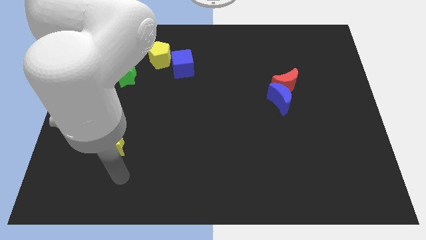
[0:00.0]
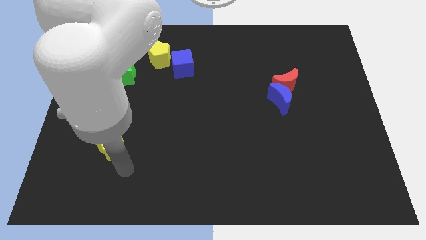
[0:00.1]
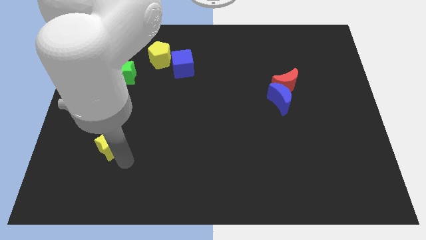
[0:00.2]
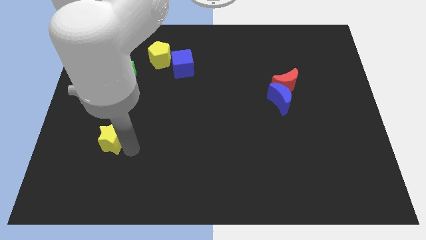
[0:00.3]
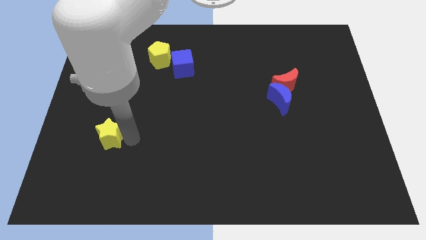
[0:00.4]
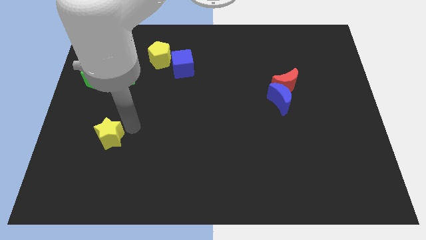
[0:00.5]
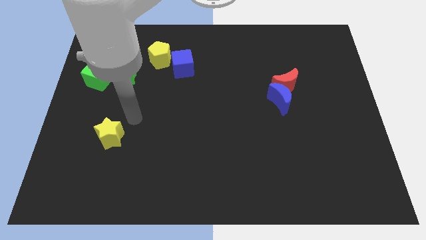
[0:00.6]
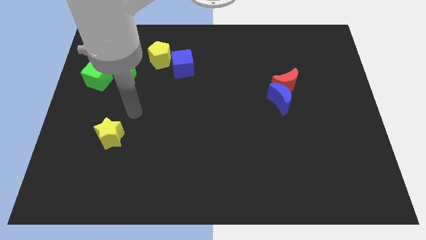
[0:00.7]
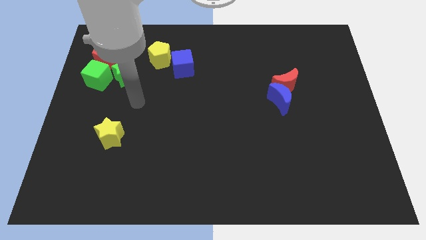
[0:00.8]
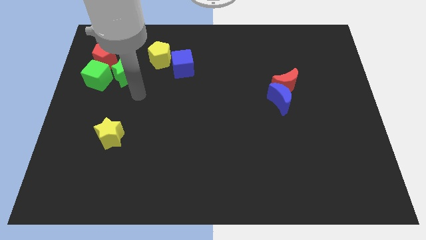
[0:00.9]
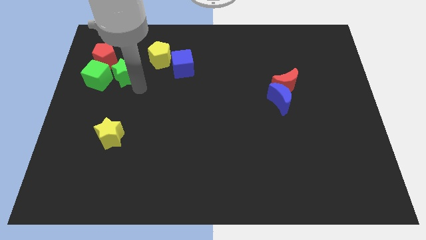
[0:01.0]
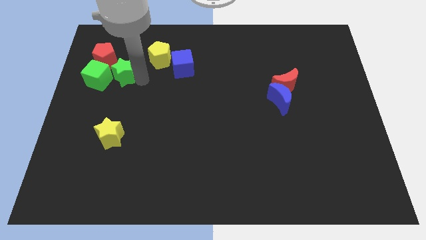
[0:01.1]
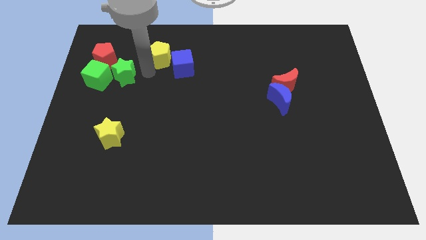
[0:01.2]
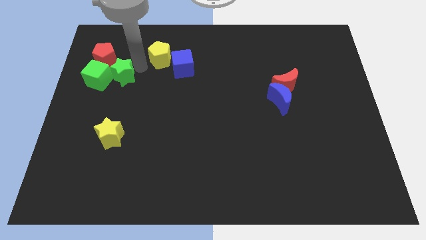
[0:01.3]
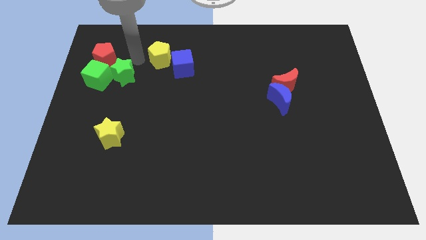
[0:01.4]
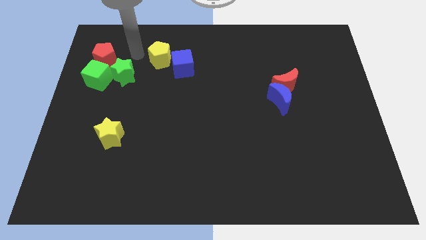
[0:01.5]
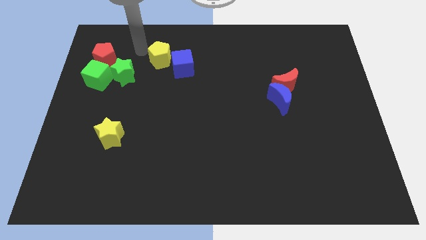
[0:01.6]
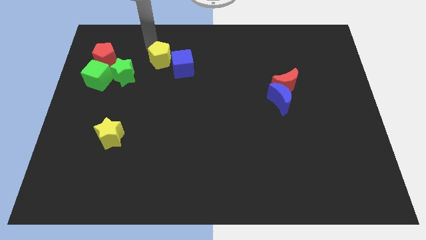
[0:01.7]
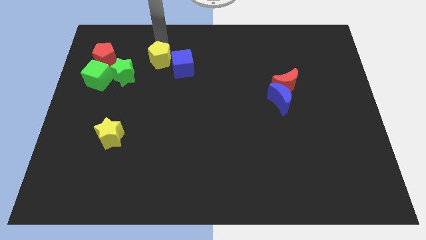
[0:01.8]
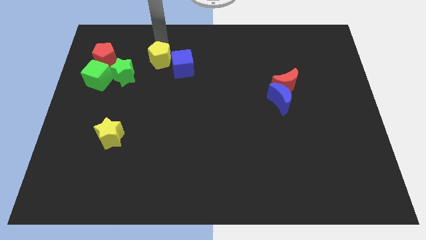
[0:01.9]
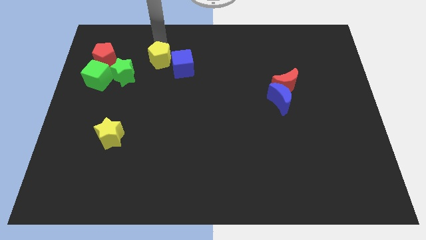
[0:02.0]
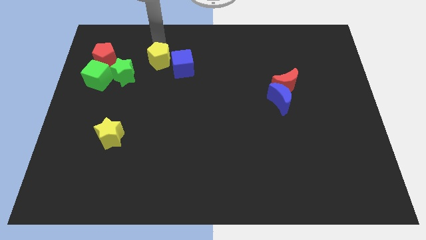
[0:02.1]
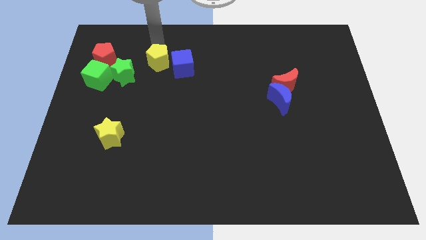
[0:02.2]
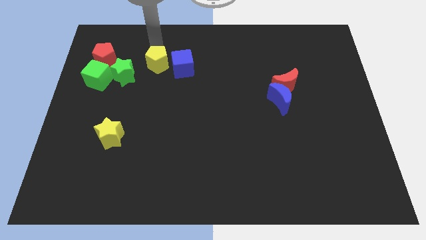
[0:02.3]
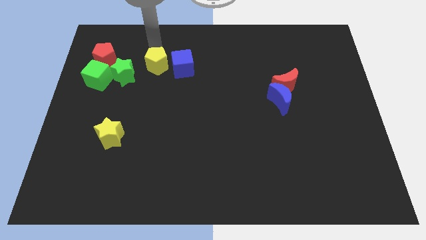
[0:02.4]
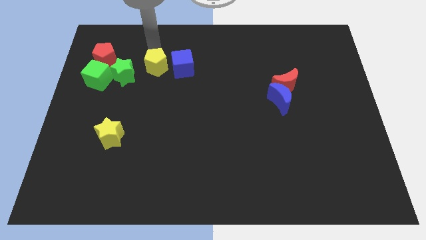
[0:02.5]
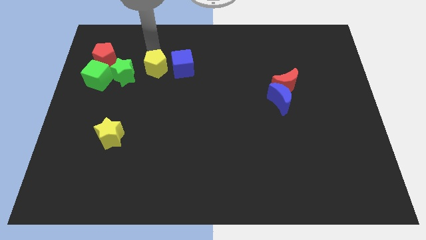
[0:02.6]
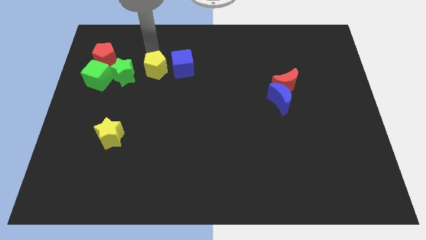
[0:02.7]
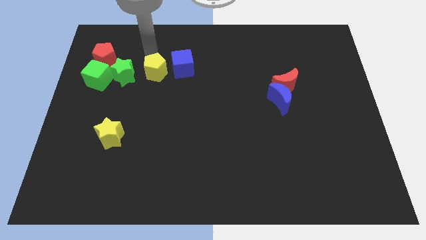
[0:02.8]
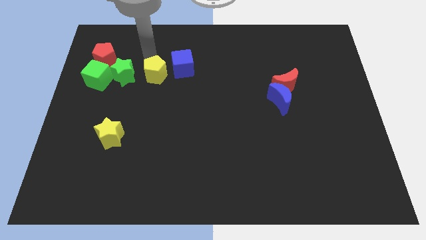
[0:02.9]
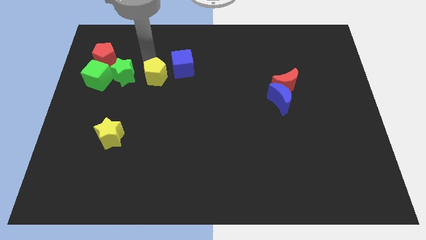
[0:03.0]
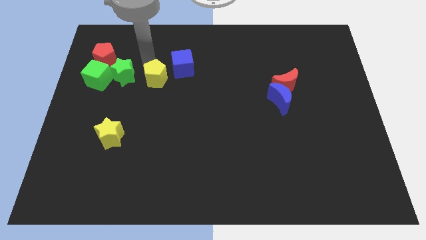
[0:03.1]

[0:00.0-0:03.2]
push the yellow pentagon a little bit downwards

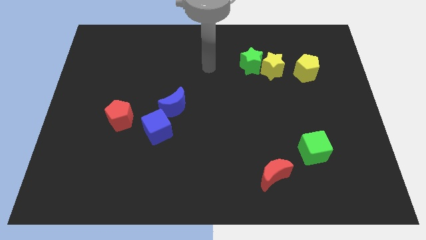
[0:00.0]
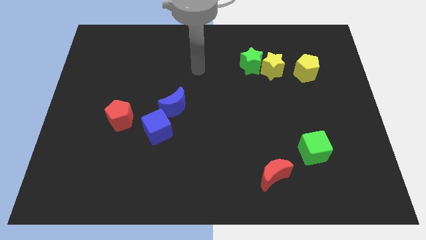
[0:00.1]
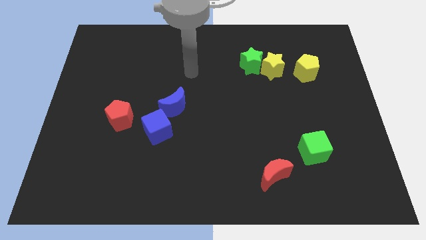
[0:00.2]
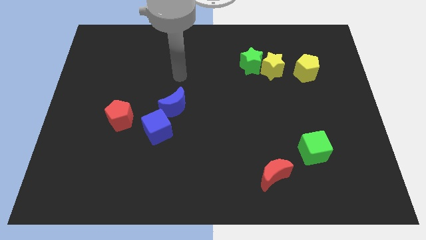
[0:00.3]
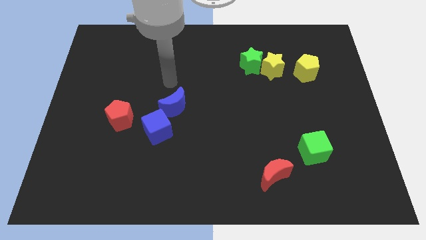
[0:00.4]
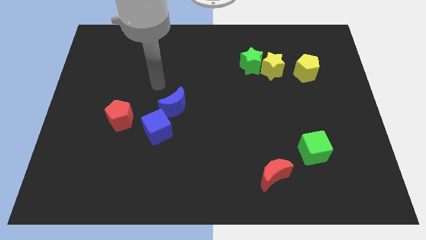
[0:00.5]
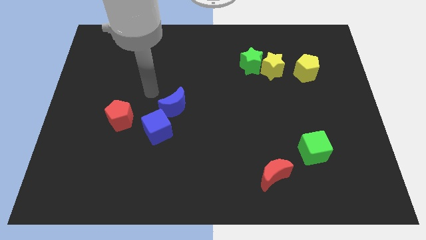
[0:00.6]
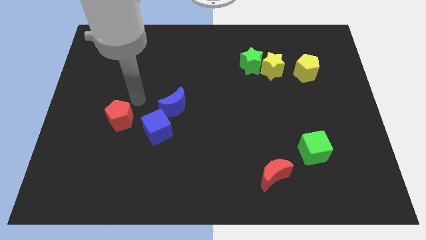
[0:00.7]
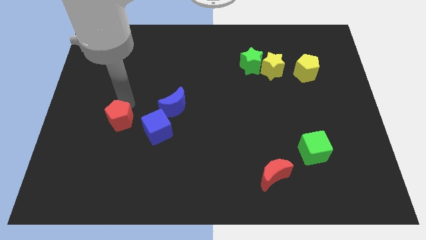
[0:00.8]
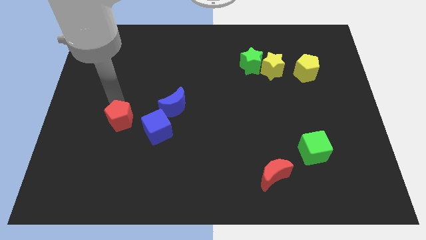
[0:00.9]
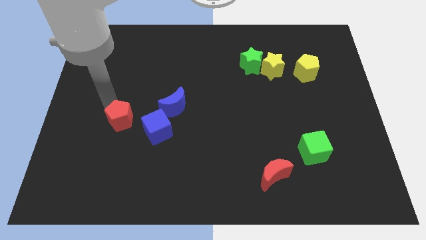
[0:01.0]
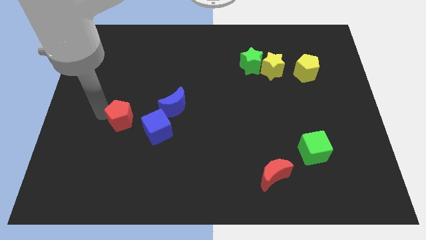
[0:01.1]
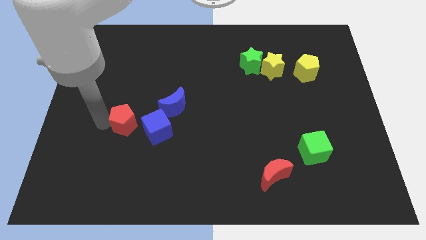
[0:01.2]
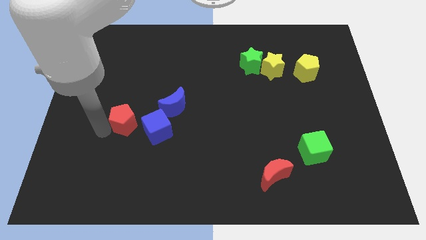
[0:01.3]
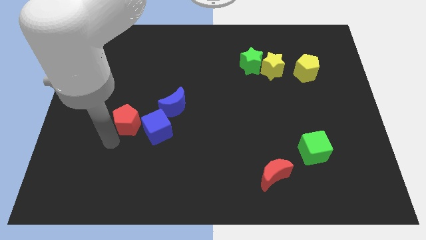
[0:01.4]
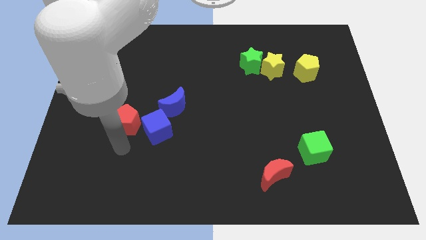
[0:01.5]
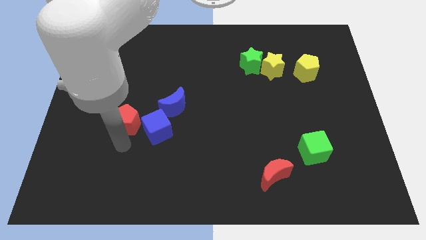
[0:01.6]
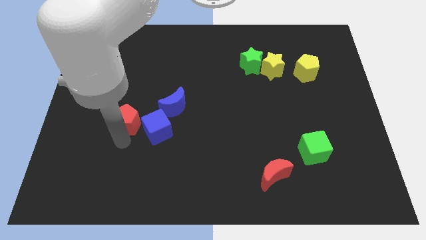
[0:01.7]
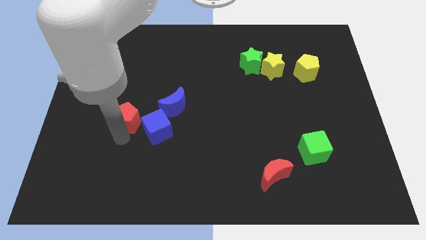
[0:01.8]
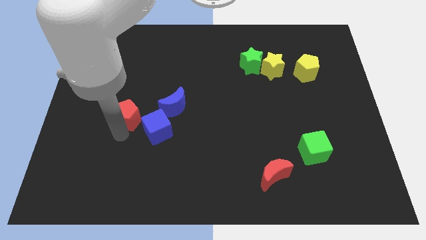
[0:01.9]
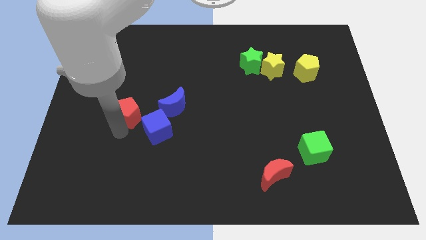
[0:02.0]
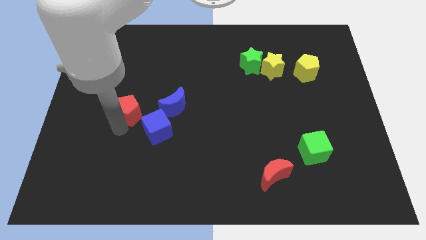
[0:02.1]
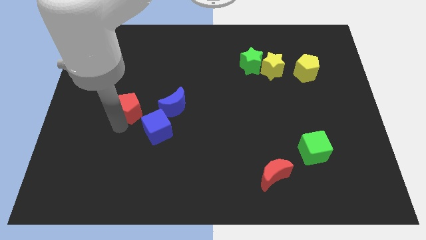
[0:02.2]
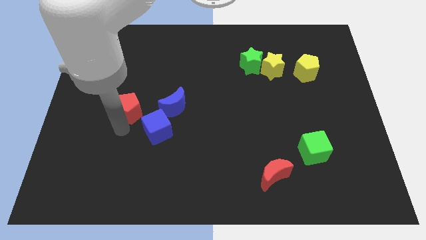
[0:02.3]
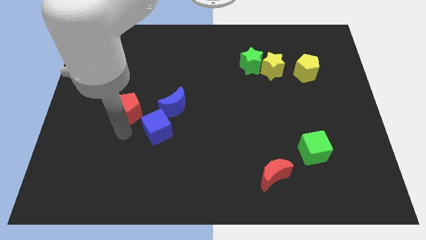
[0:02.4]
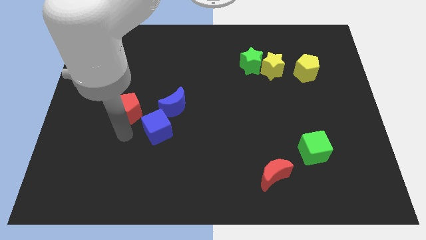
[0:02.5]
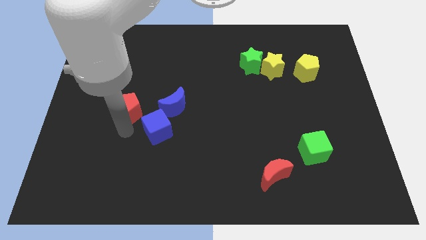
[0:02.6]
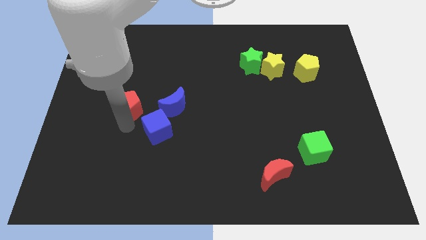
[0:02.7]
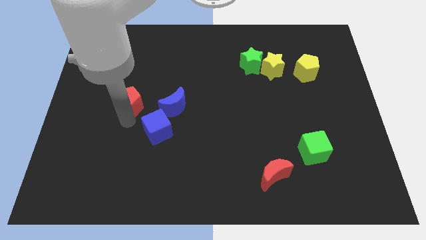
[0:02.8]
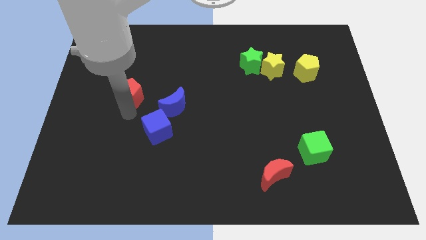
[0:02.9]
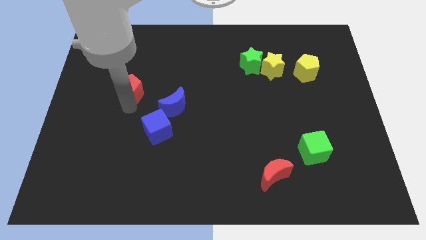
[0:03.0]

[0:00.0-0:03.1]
push the red pentagon a little upwards

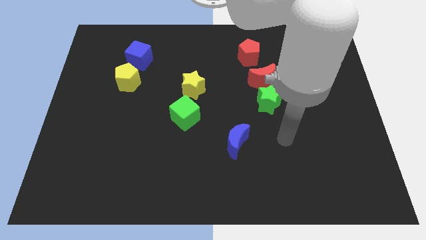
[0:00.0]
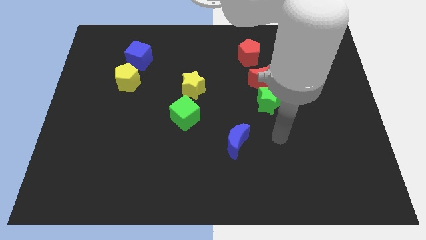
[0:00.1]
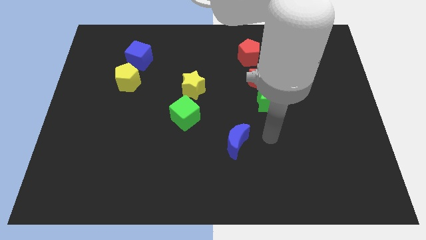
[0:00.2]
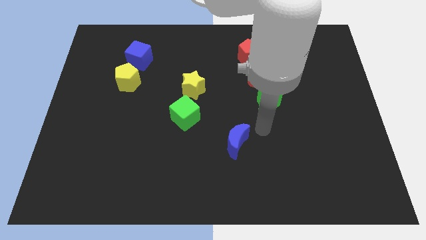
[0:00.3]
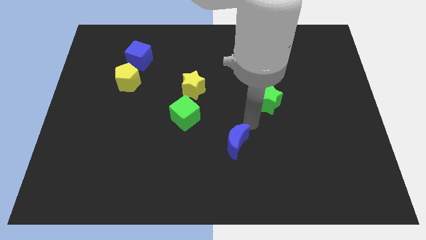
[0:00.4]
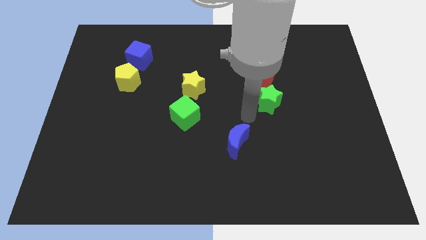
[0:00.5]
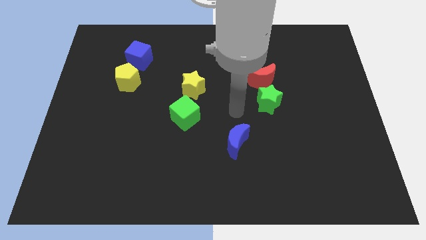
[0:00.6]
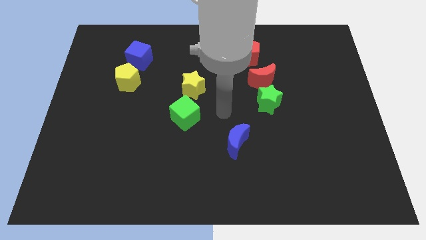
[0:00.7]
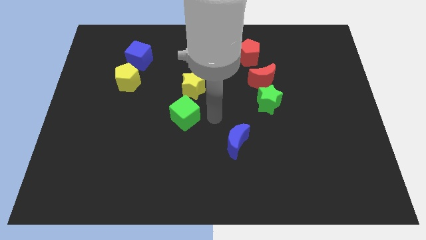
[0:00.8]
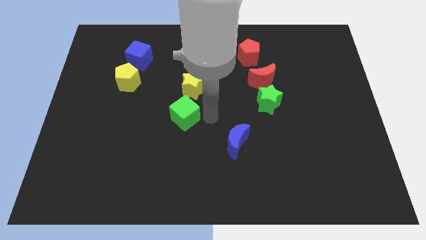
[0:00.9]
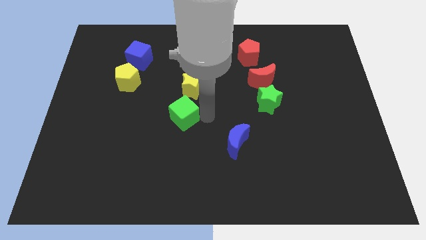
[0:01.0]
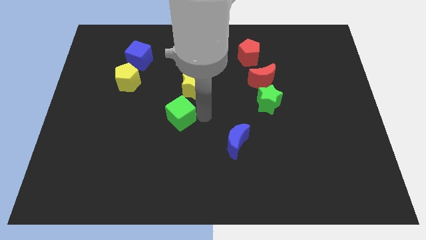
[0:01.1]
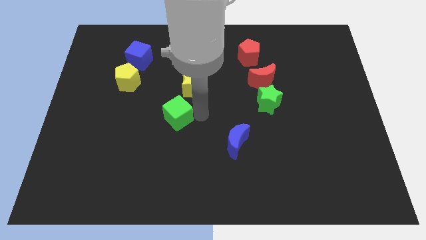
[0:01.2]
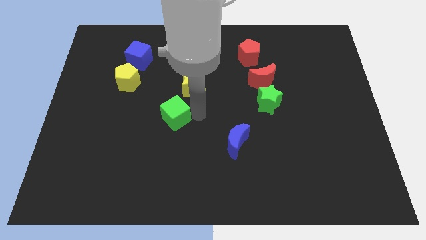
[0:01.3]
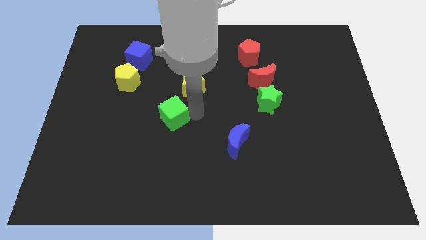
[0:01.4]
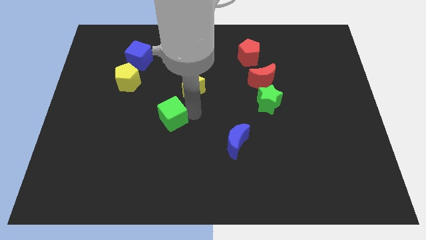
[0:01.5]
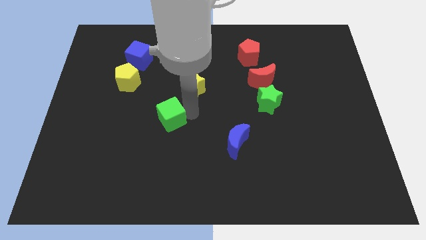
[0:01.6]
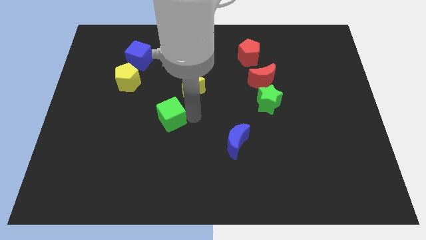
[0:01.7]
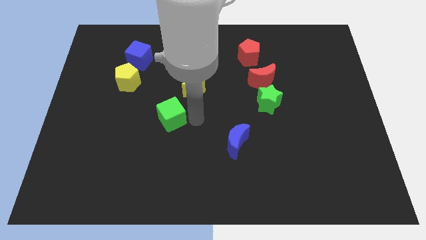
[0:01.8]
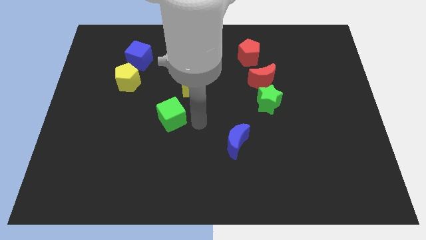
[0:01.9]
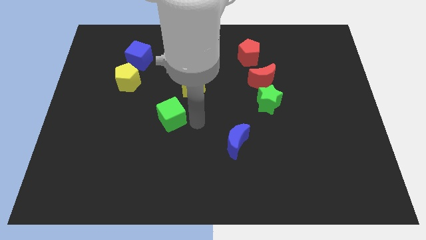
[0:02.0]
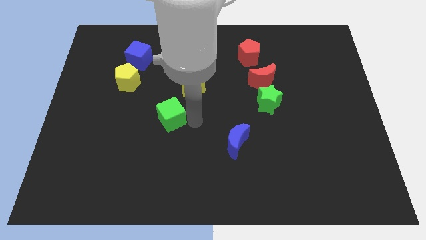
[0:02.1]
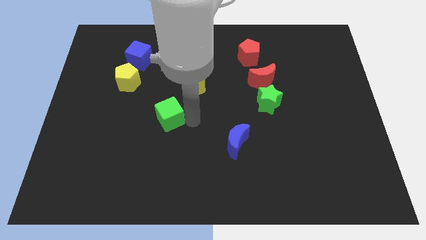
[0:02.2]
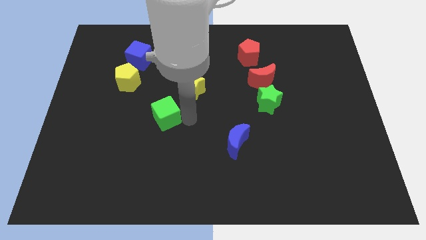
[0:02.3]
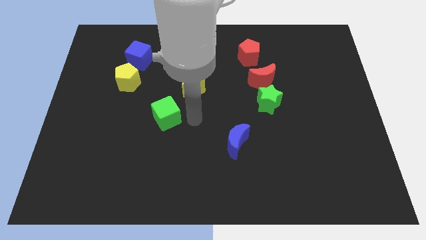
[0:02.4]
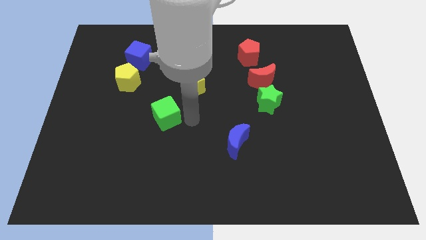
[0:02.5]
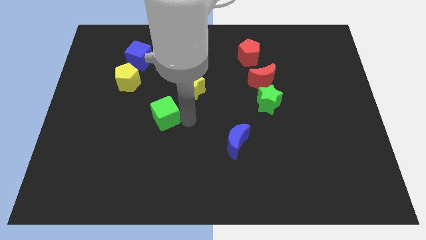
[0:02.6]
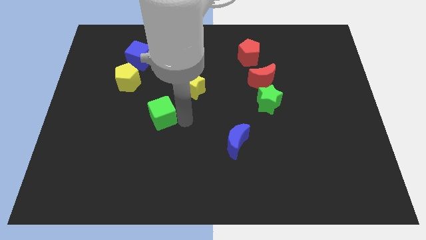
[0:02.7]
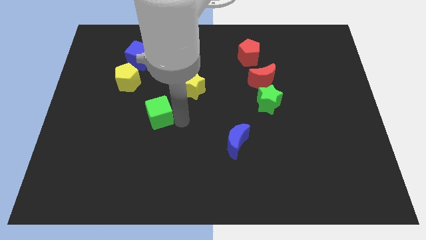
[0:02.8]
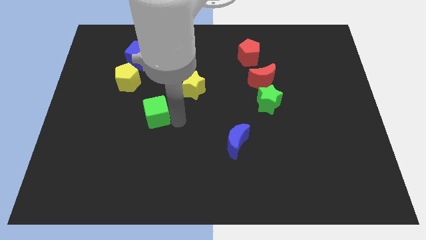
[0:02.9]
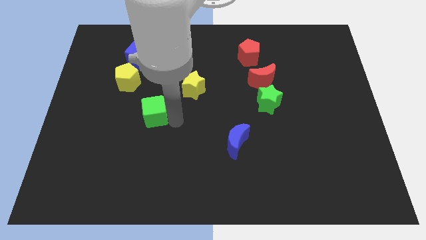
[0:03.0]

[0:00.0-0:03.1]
slightly push the green cube left
